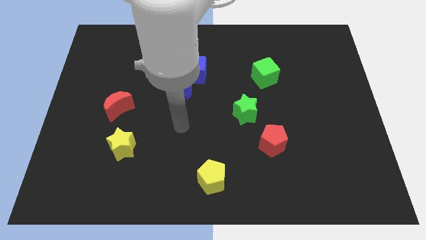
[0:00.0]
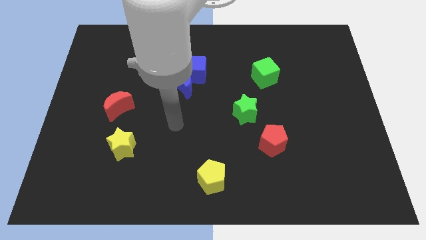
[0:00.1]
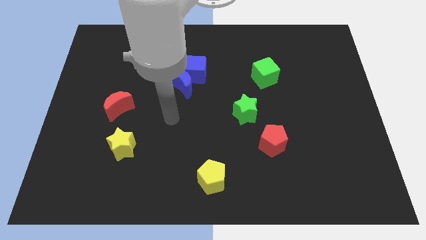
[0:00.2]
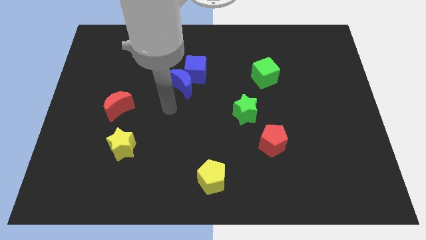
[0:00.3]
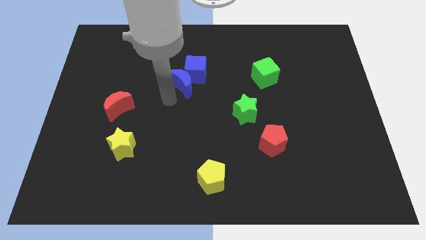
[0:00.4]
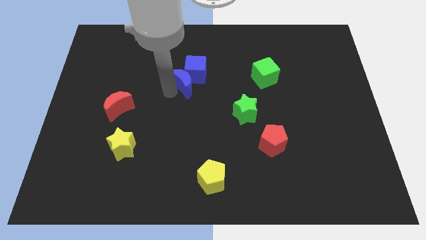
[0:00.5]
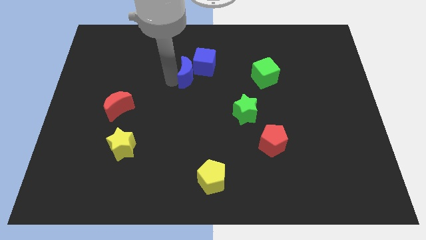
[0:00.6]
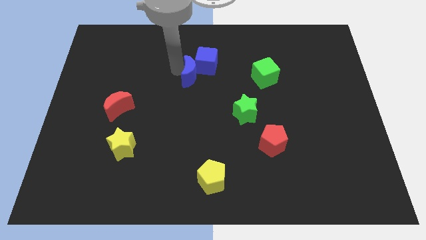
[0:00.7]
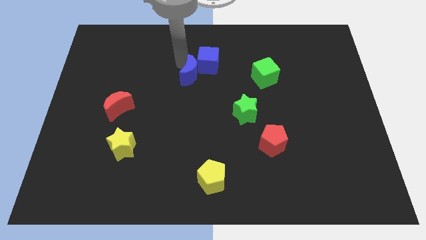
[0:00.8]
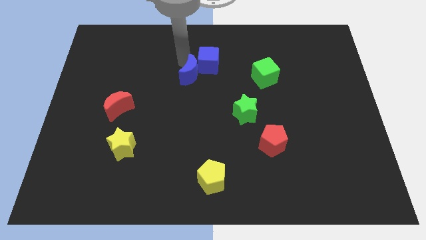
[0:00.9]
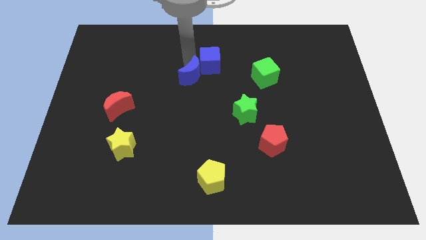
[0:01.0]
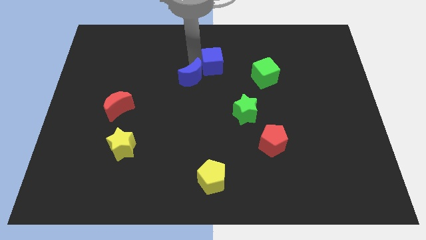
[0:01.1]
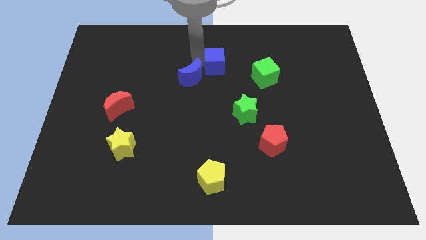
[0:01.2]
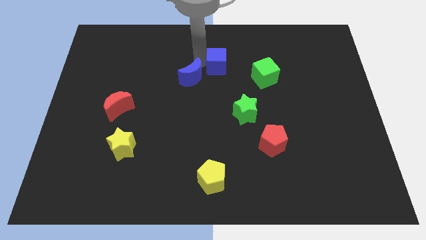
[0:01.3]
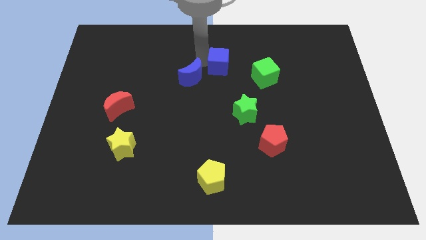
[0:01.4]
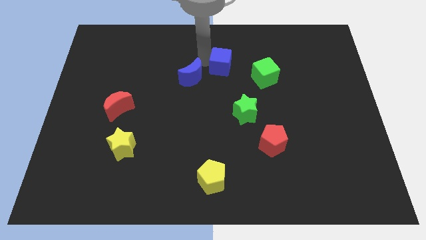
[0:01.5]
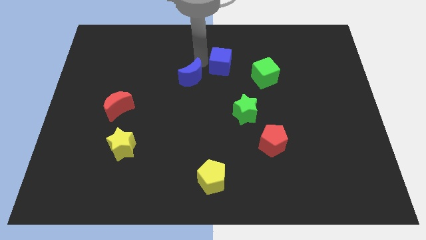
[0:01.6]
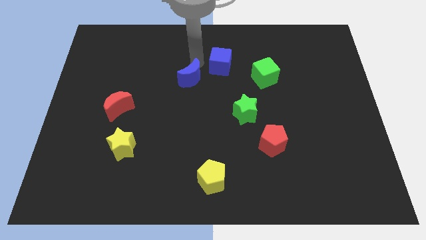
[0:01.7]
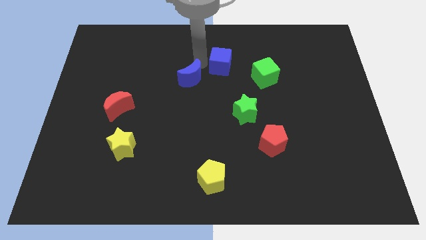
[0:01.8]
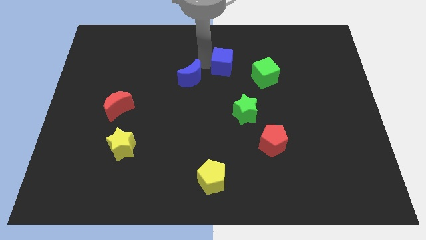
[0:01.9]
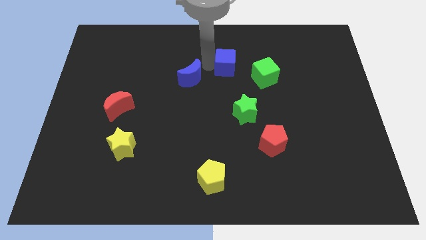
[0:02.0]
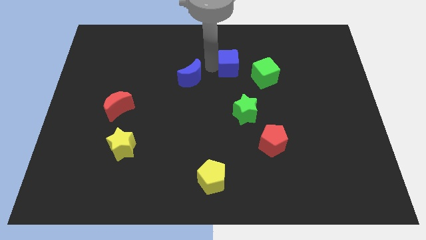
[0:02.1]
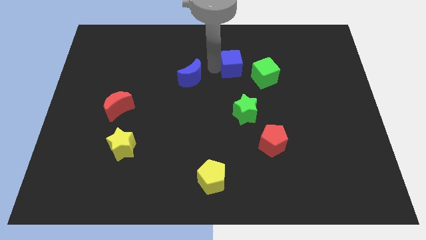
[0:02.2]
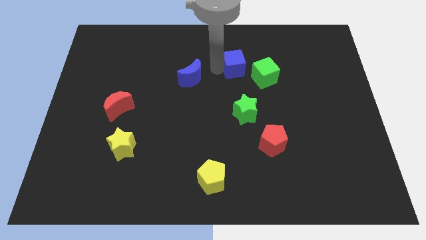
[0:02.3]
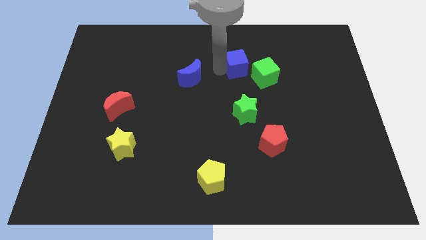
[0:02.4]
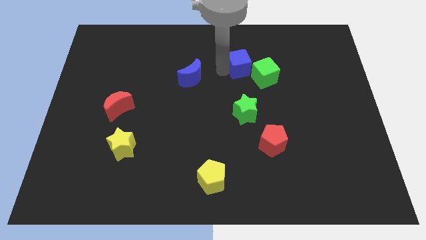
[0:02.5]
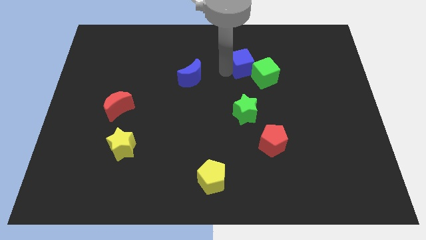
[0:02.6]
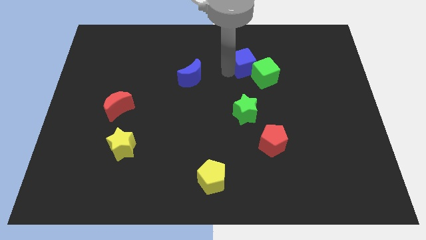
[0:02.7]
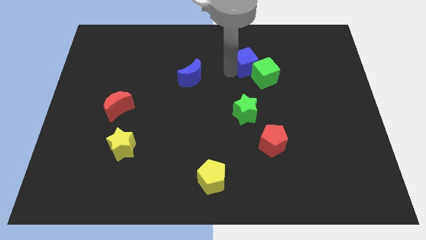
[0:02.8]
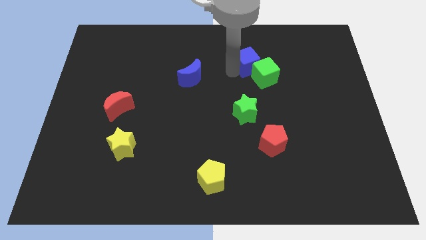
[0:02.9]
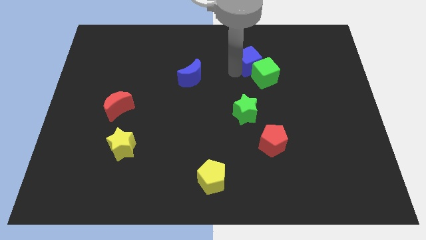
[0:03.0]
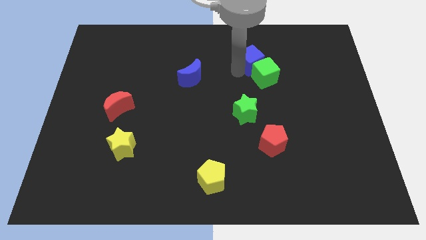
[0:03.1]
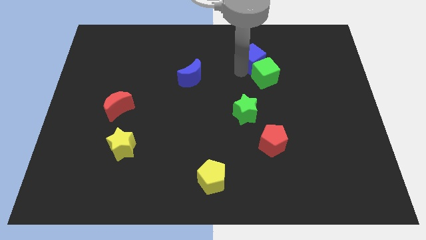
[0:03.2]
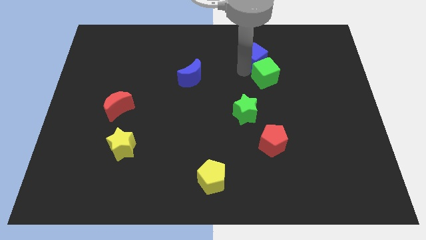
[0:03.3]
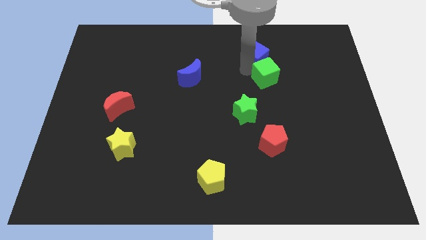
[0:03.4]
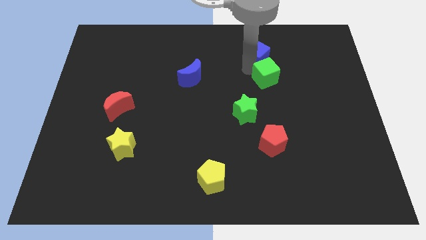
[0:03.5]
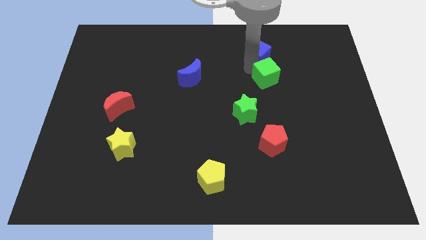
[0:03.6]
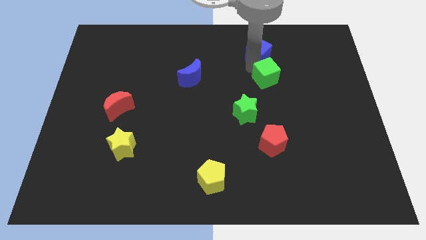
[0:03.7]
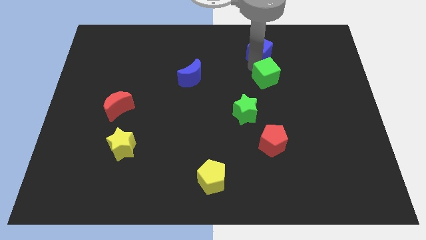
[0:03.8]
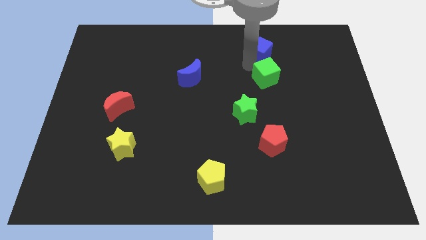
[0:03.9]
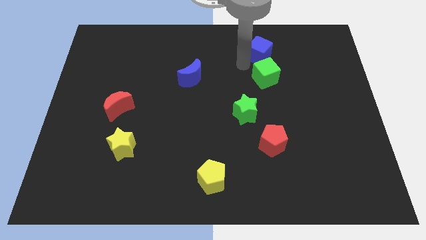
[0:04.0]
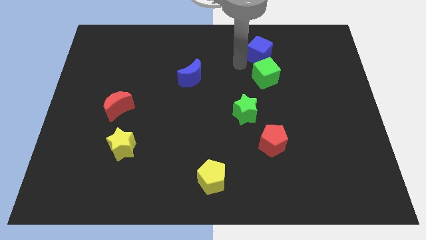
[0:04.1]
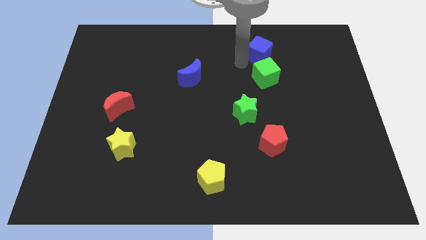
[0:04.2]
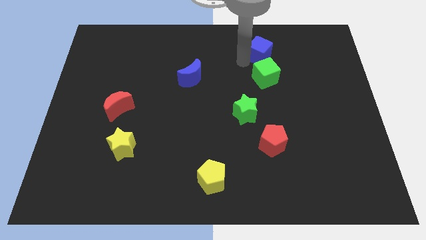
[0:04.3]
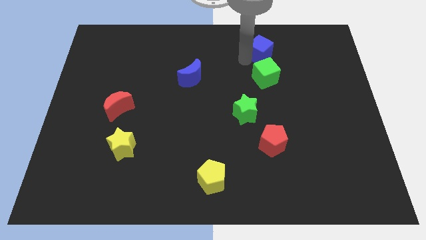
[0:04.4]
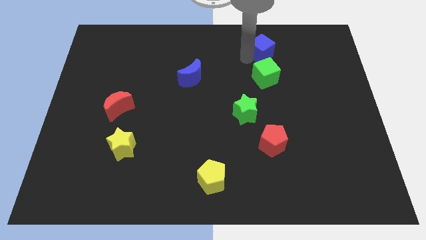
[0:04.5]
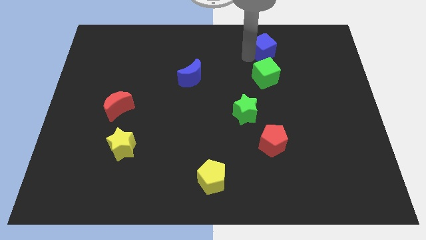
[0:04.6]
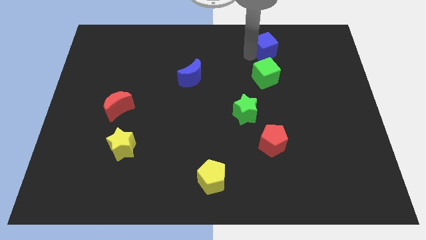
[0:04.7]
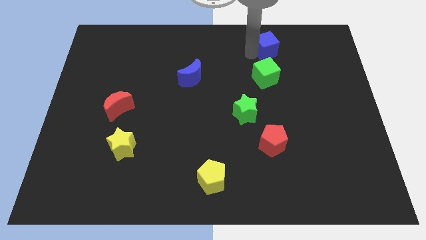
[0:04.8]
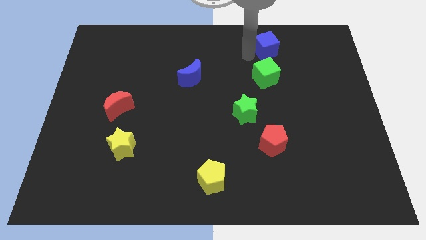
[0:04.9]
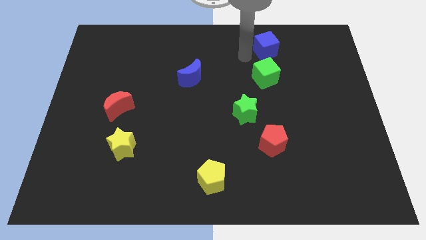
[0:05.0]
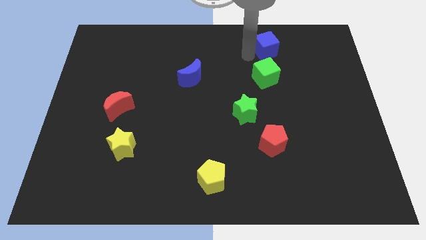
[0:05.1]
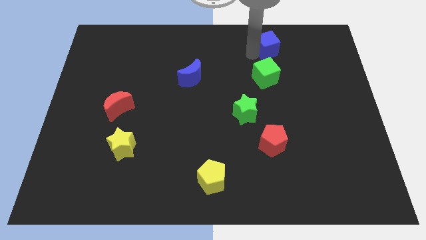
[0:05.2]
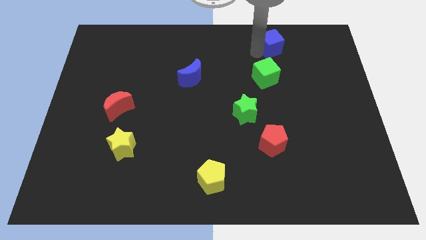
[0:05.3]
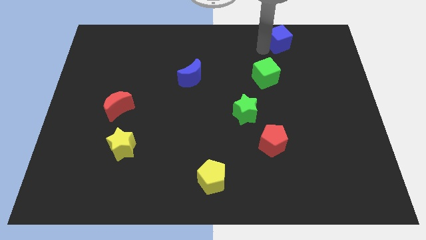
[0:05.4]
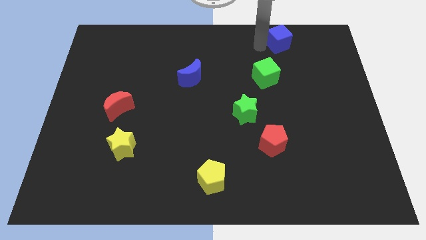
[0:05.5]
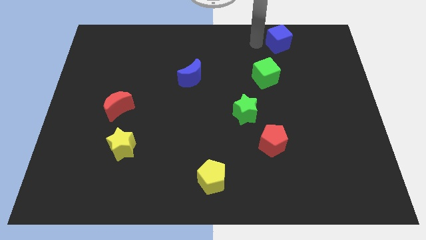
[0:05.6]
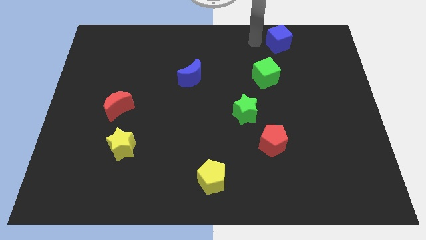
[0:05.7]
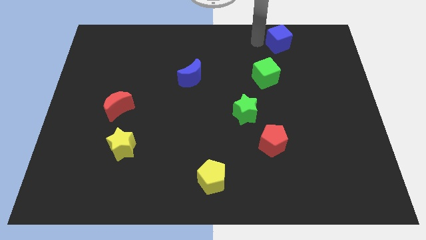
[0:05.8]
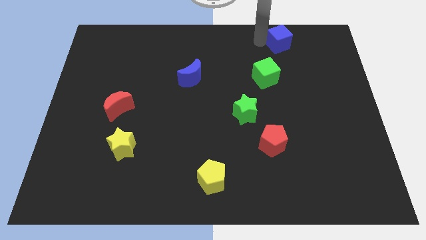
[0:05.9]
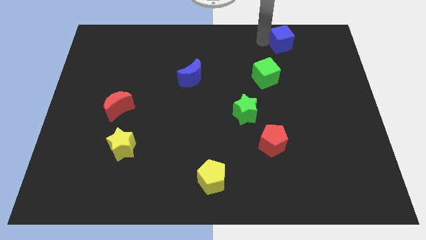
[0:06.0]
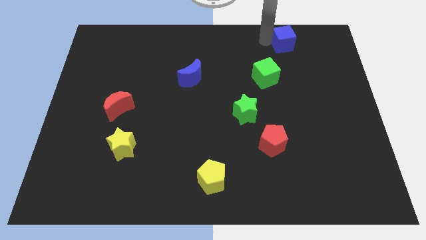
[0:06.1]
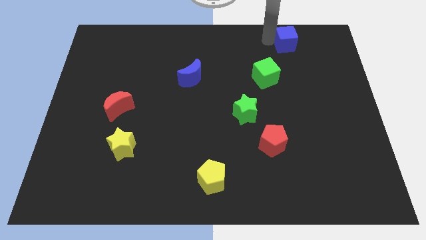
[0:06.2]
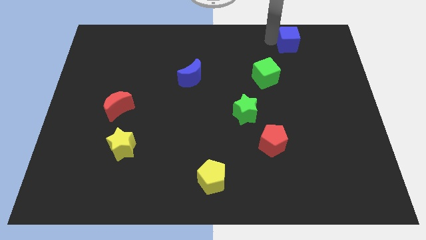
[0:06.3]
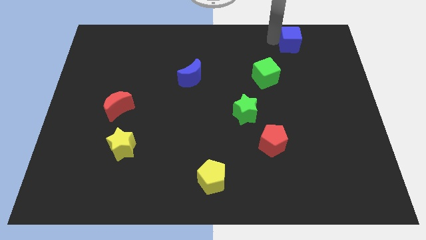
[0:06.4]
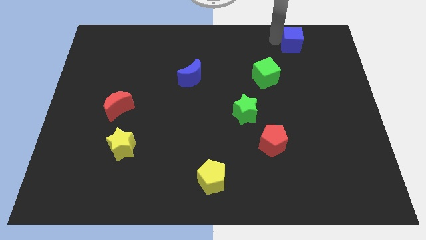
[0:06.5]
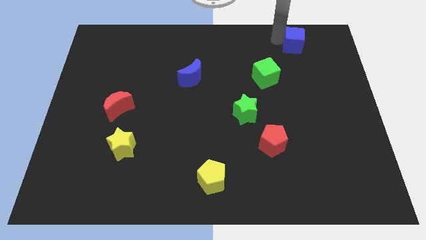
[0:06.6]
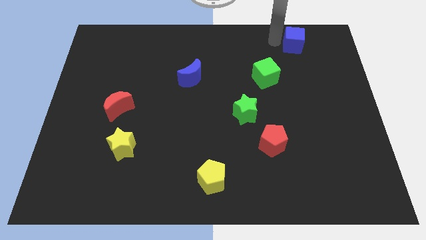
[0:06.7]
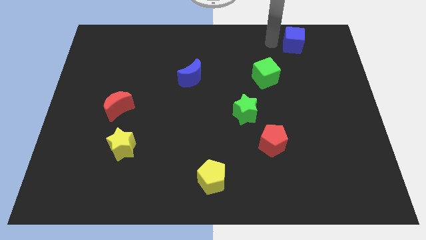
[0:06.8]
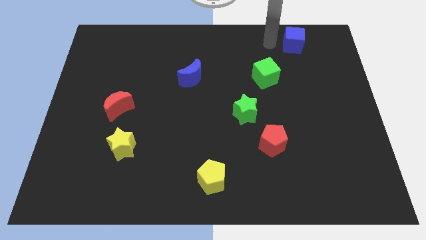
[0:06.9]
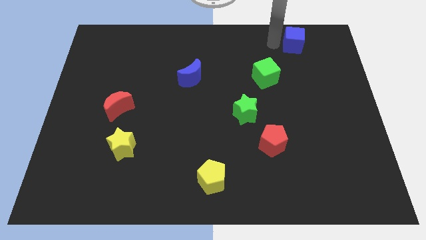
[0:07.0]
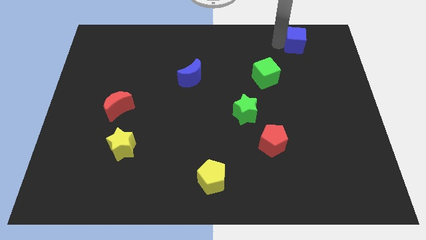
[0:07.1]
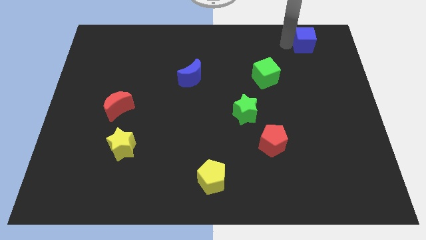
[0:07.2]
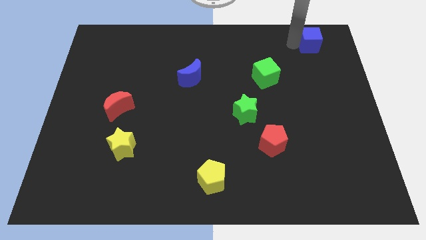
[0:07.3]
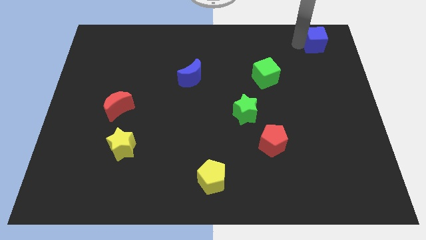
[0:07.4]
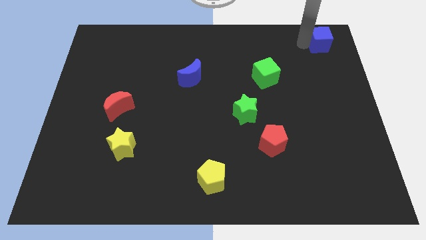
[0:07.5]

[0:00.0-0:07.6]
push the blue cube to the top right corner
